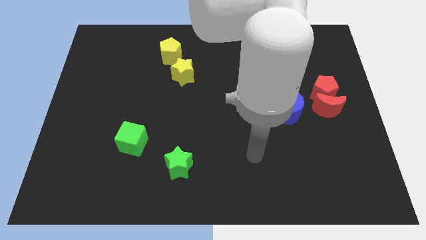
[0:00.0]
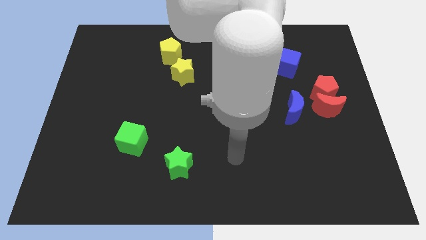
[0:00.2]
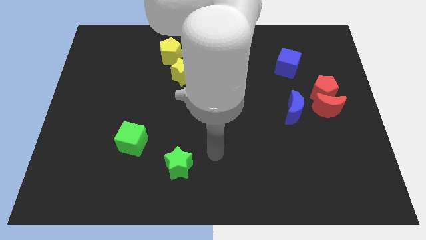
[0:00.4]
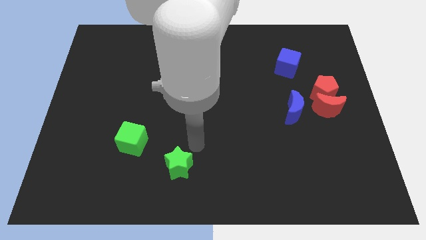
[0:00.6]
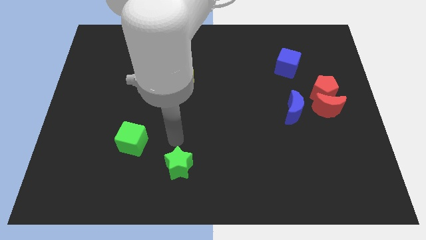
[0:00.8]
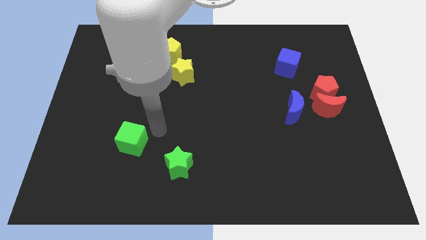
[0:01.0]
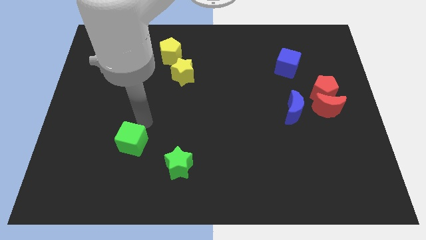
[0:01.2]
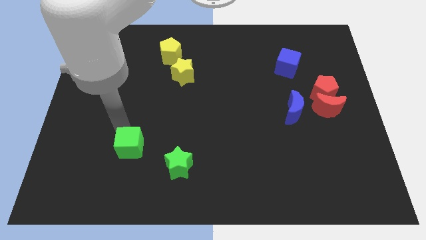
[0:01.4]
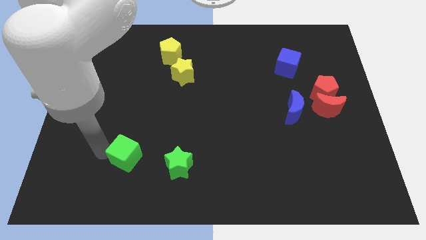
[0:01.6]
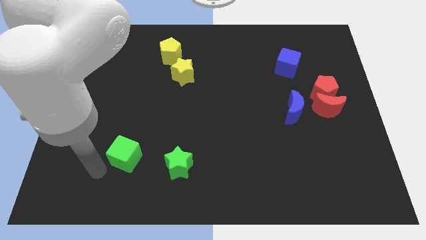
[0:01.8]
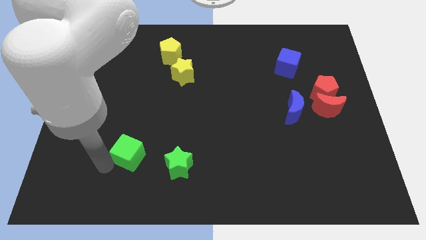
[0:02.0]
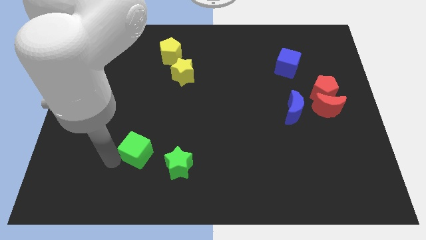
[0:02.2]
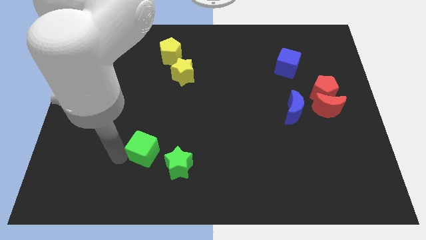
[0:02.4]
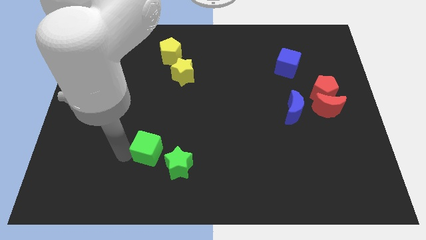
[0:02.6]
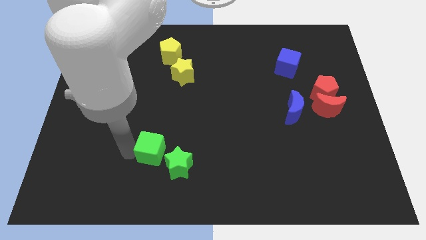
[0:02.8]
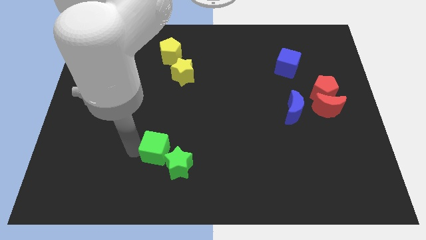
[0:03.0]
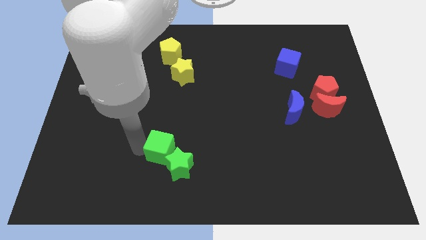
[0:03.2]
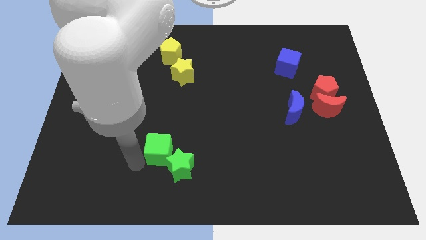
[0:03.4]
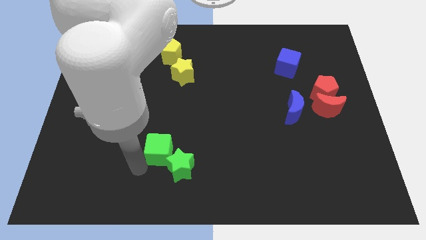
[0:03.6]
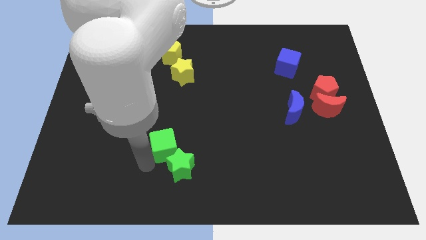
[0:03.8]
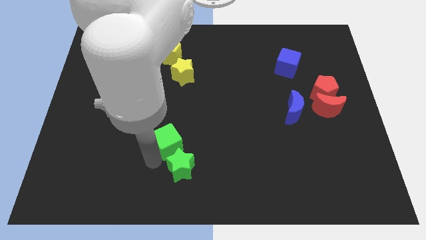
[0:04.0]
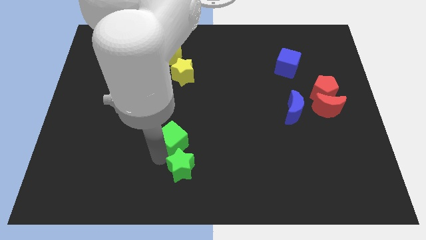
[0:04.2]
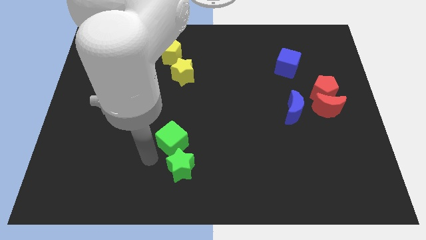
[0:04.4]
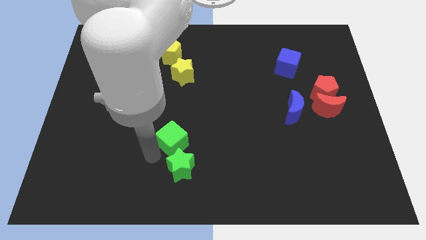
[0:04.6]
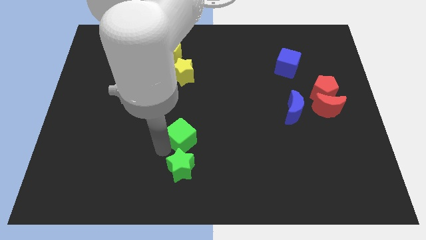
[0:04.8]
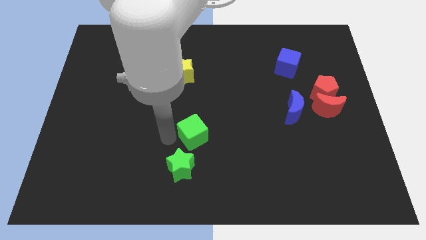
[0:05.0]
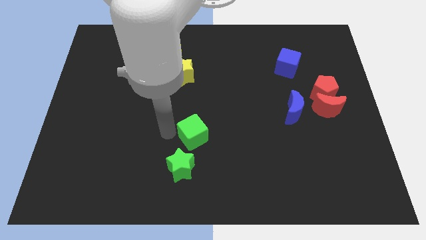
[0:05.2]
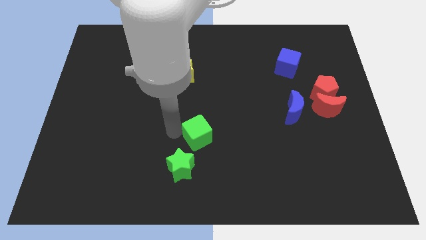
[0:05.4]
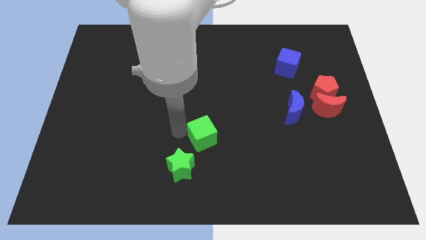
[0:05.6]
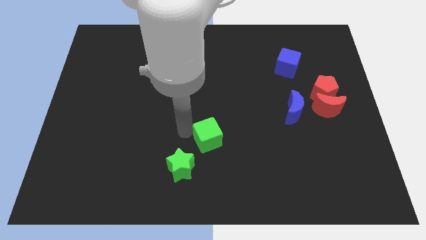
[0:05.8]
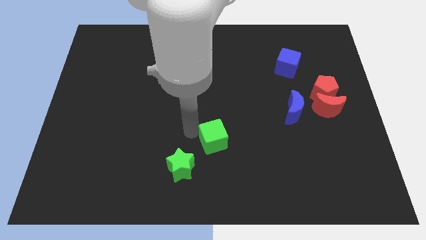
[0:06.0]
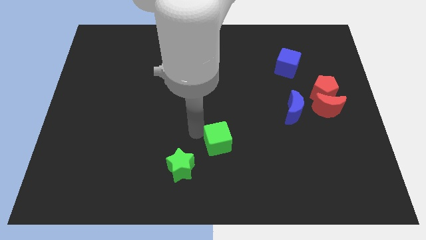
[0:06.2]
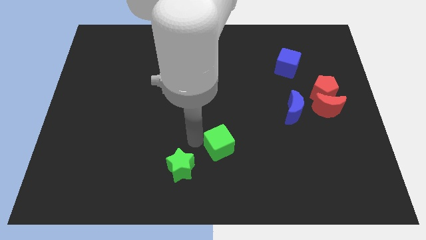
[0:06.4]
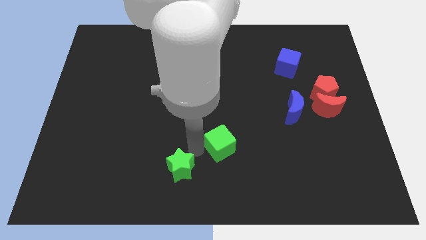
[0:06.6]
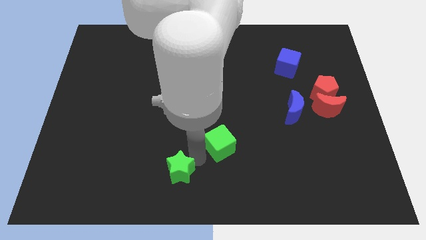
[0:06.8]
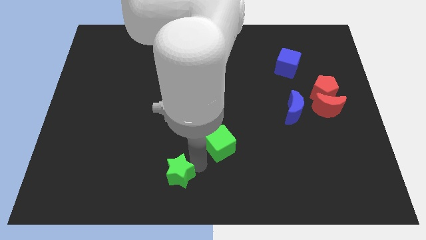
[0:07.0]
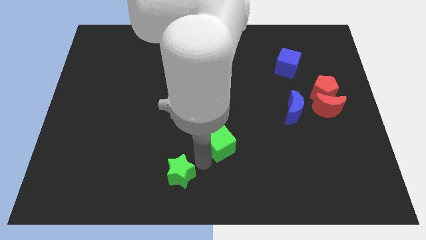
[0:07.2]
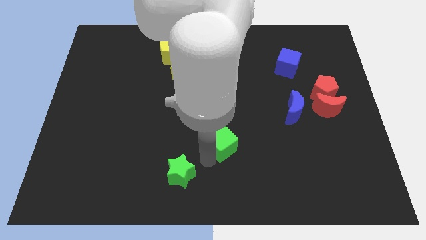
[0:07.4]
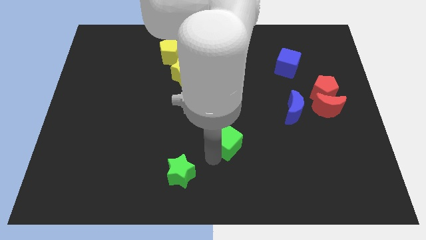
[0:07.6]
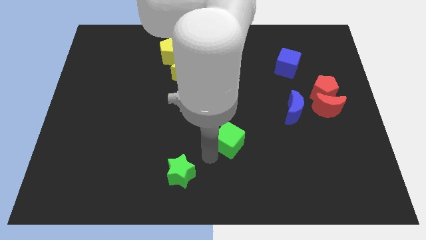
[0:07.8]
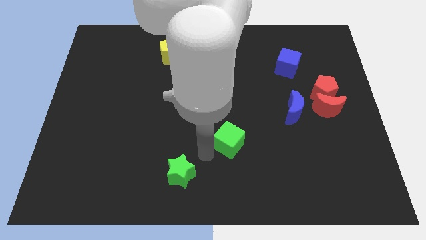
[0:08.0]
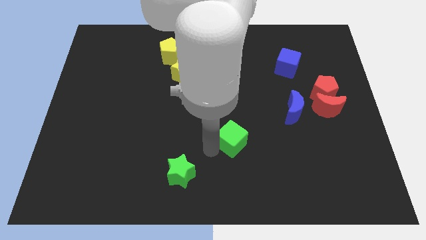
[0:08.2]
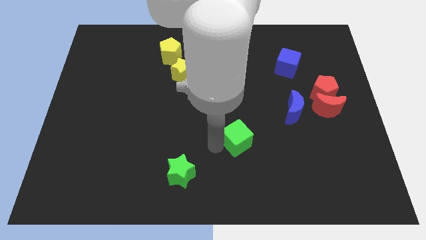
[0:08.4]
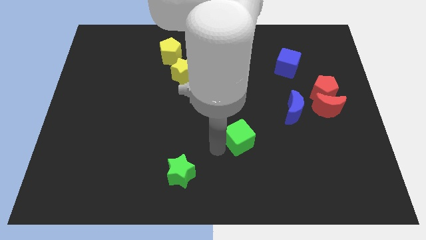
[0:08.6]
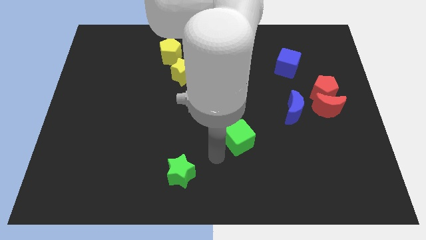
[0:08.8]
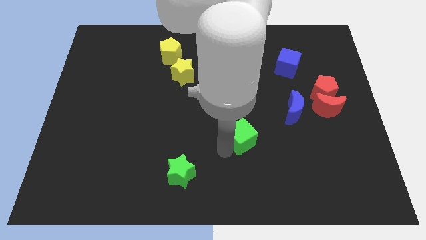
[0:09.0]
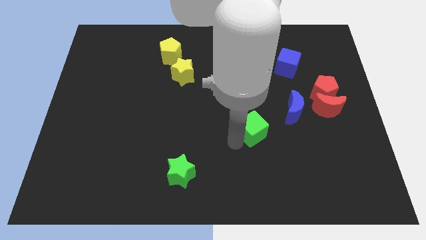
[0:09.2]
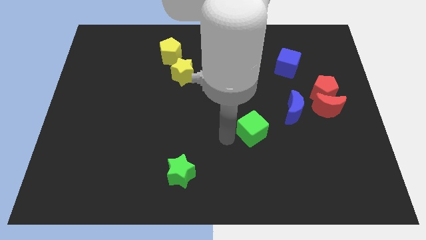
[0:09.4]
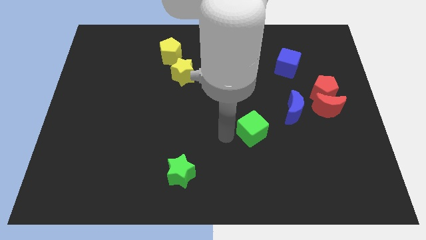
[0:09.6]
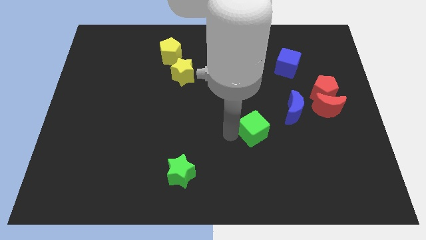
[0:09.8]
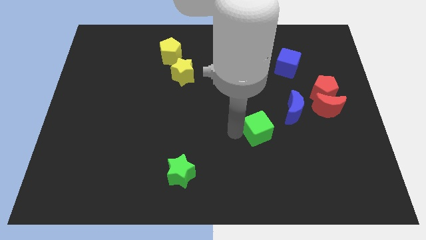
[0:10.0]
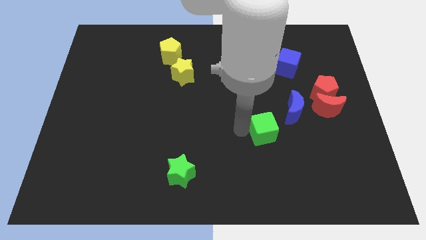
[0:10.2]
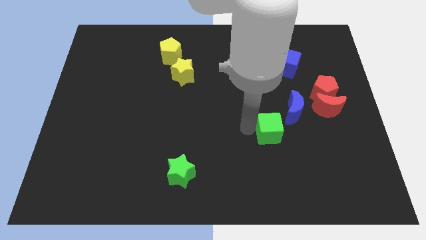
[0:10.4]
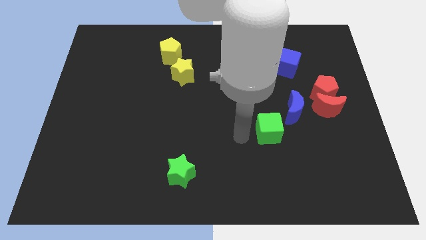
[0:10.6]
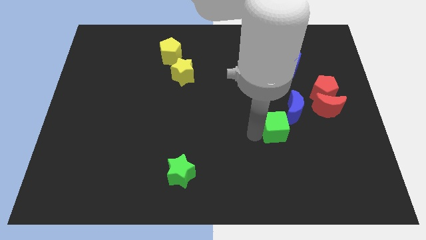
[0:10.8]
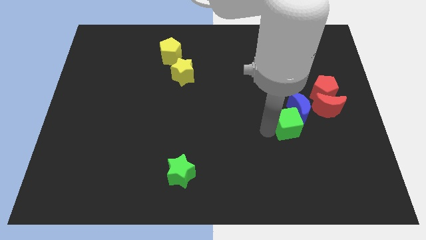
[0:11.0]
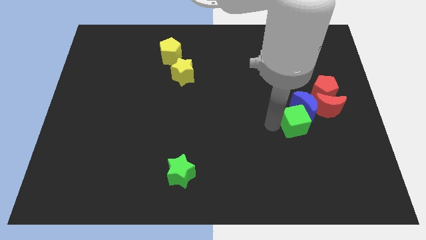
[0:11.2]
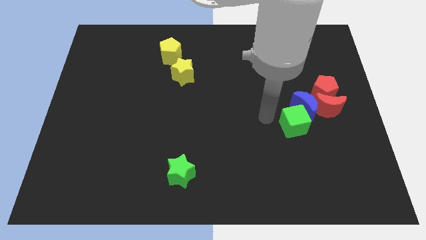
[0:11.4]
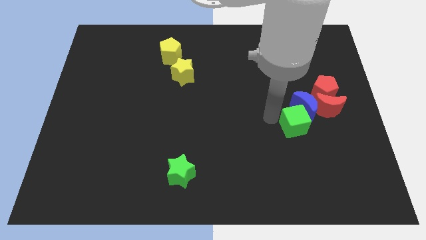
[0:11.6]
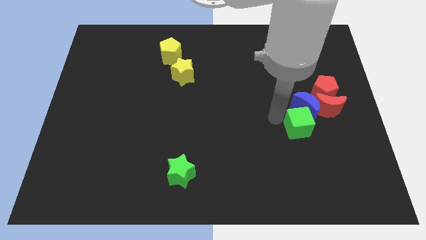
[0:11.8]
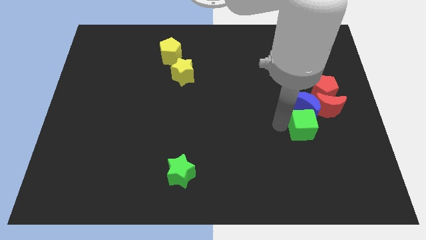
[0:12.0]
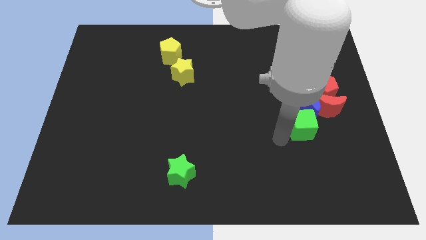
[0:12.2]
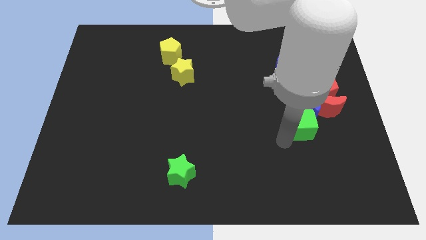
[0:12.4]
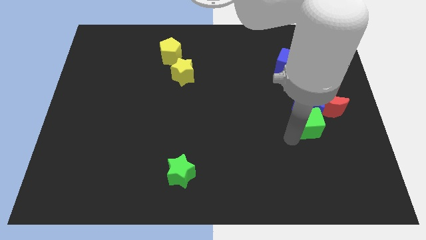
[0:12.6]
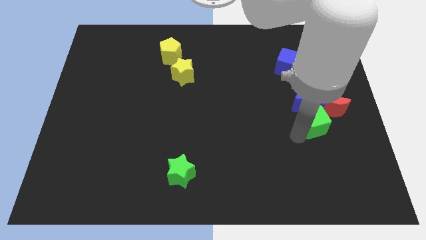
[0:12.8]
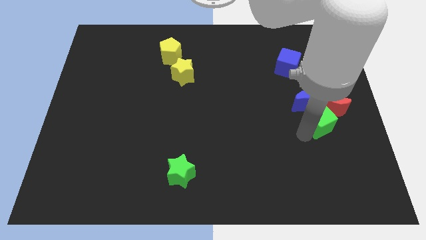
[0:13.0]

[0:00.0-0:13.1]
put the green cube towards the red moon
